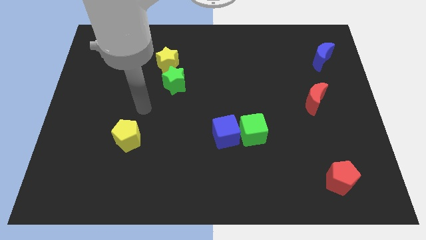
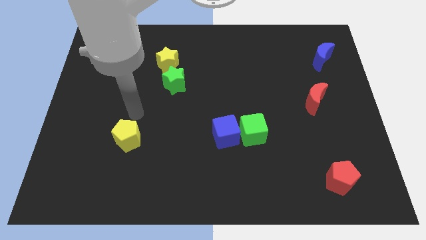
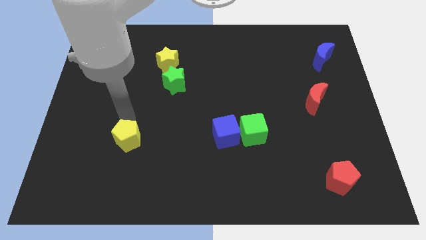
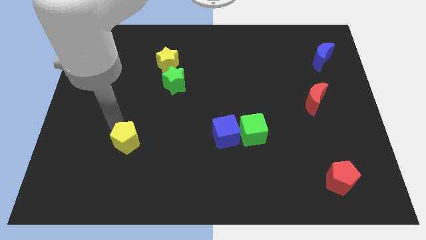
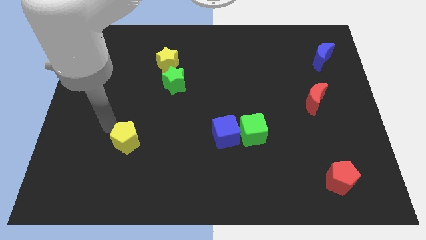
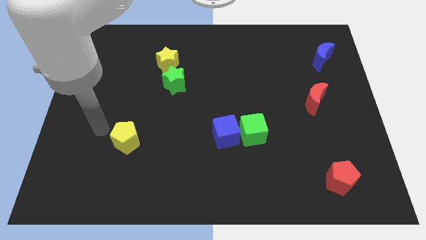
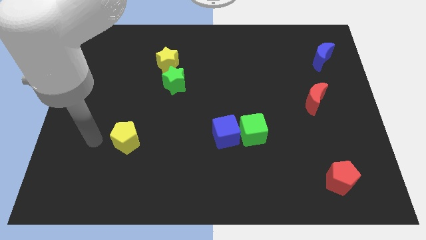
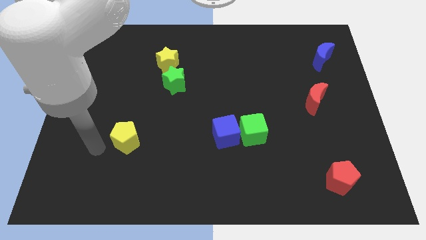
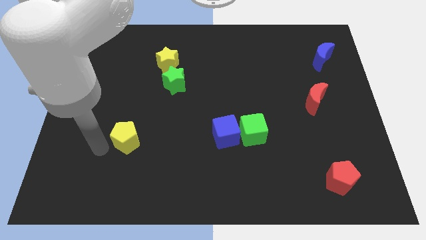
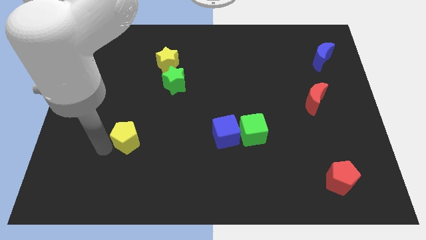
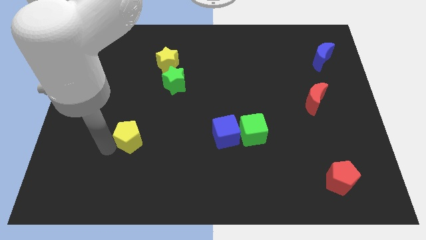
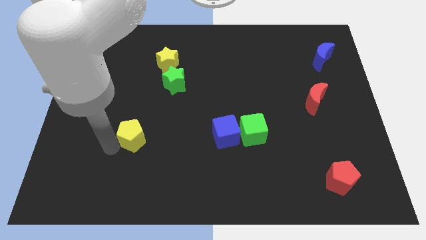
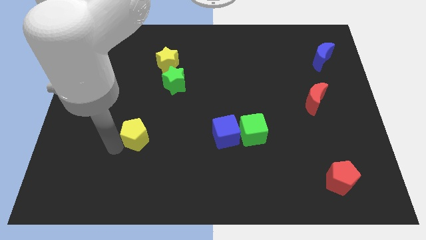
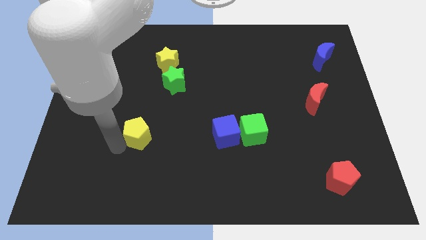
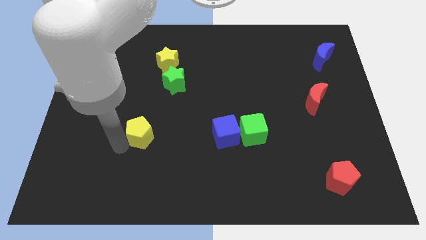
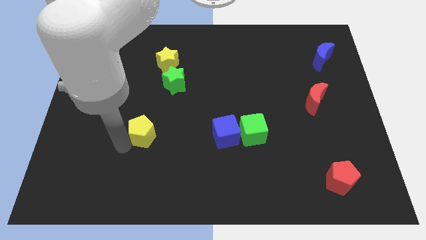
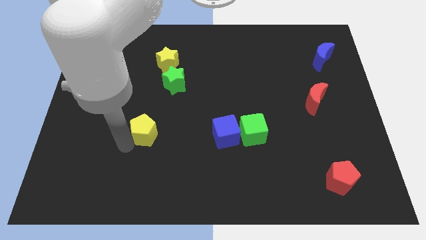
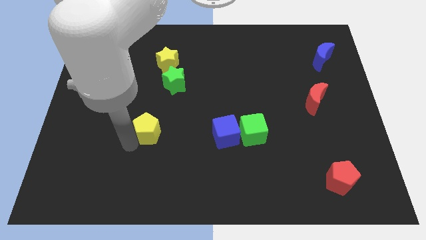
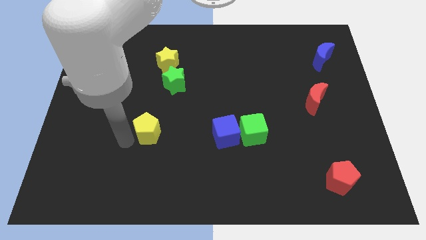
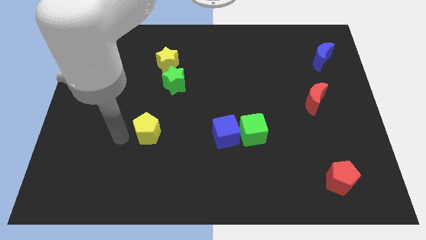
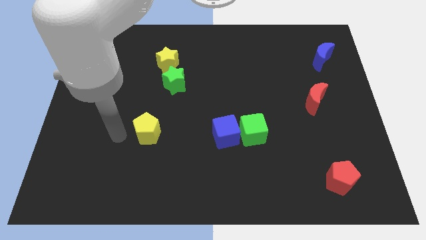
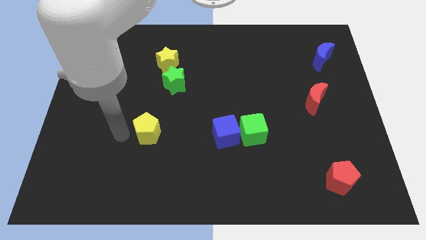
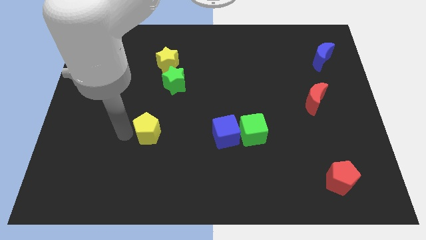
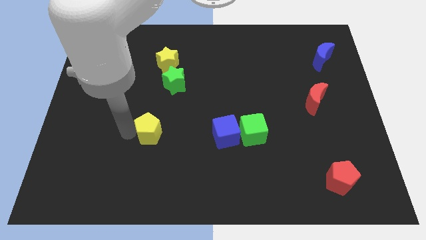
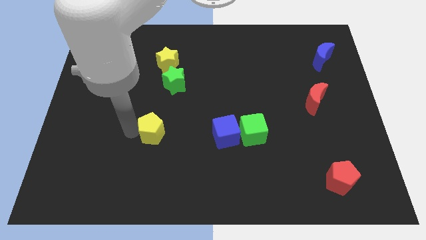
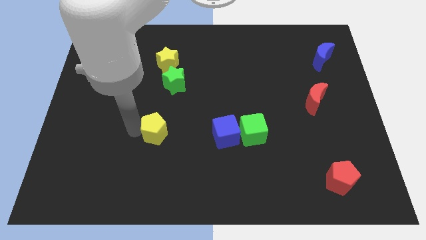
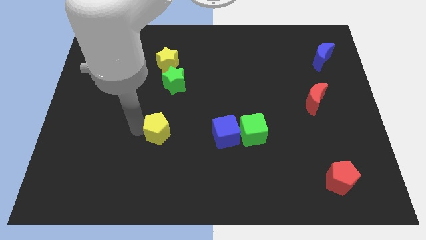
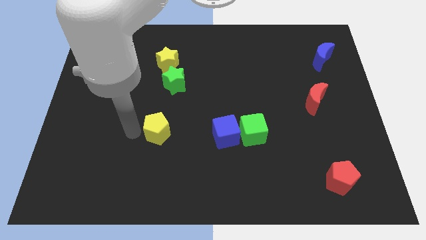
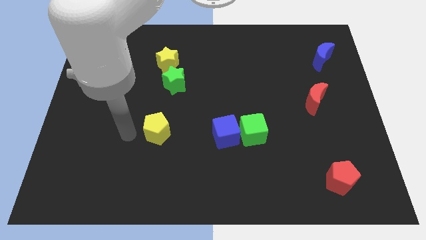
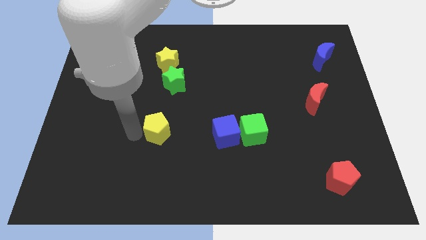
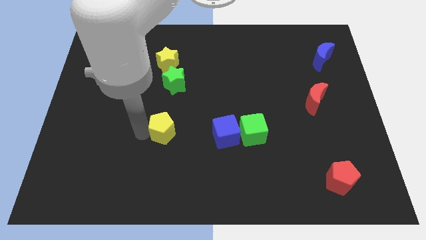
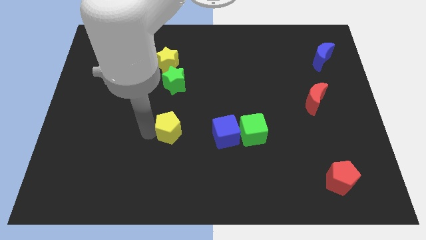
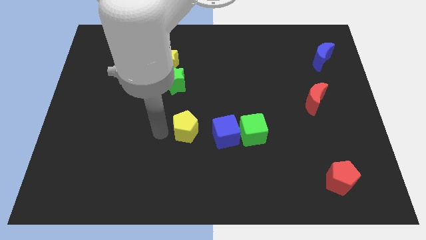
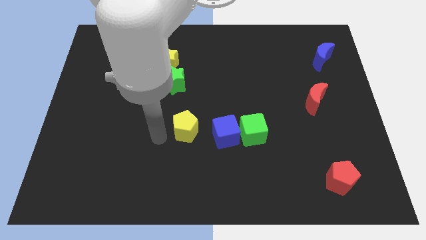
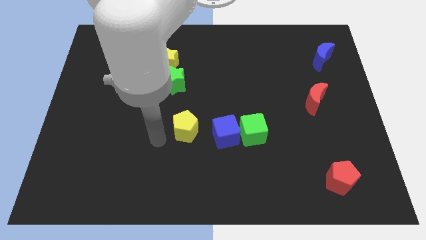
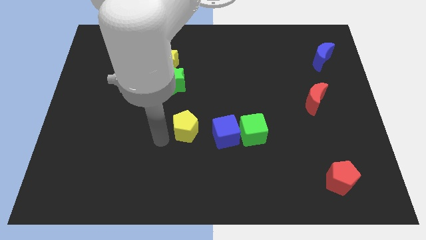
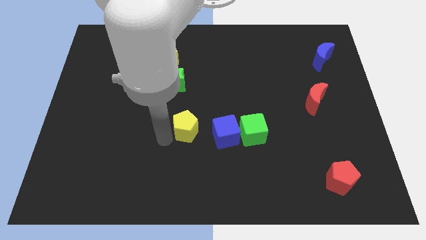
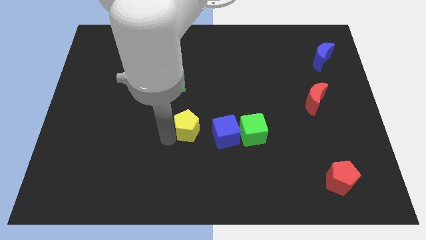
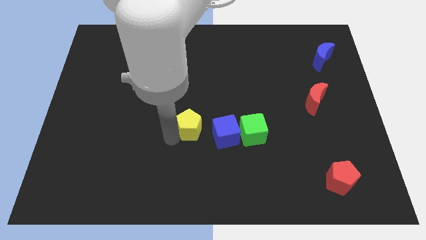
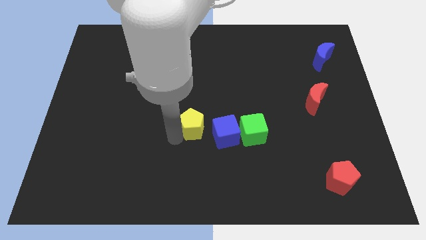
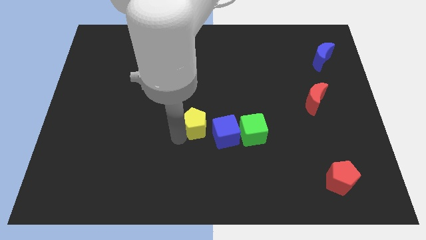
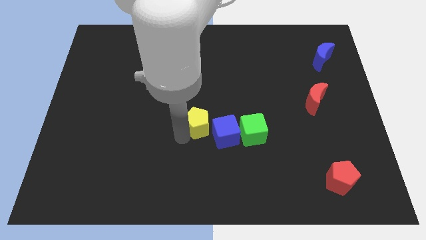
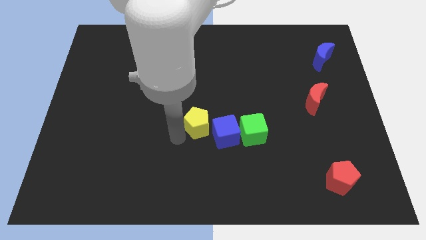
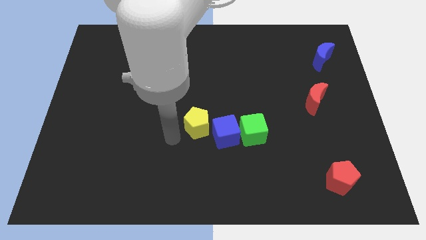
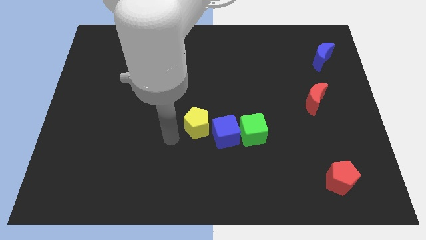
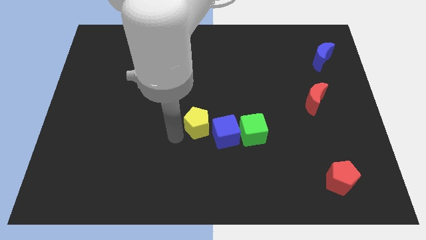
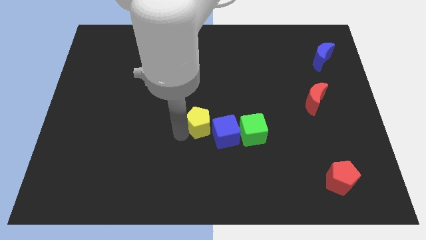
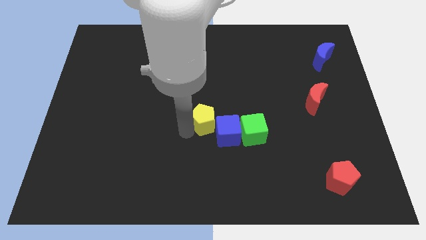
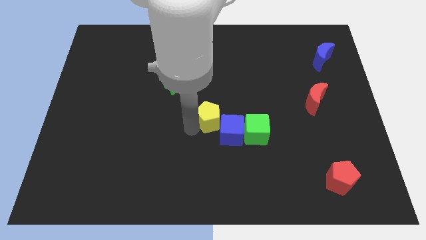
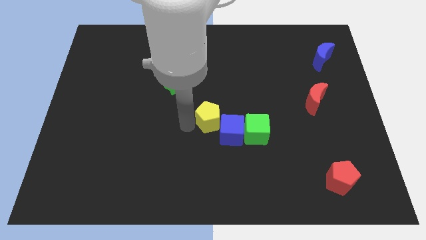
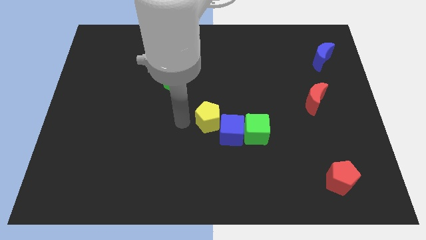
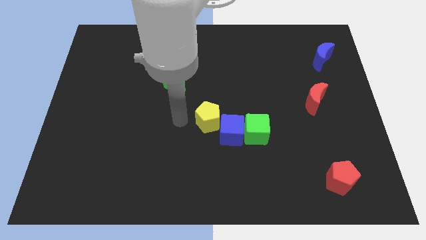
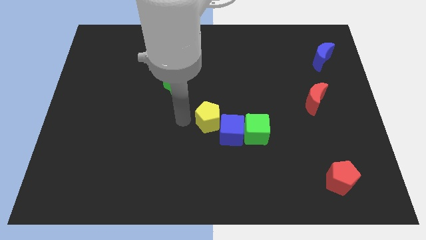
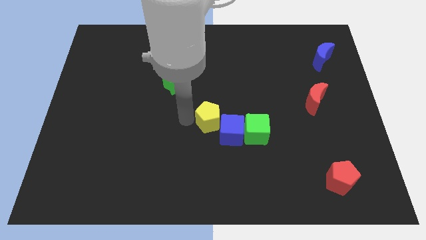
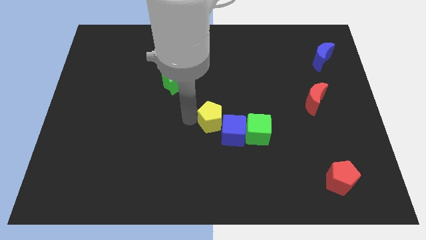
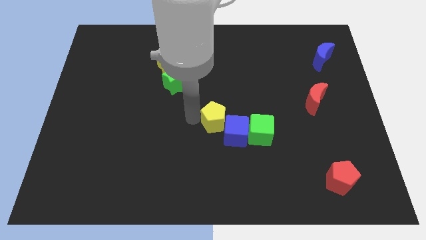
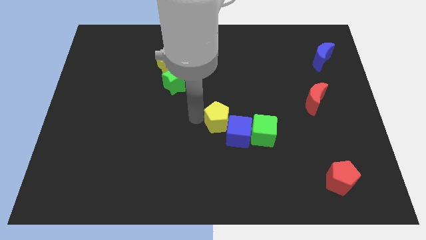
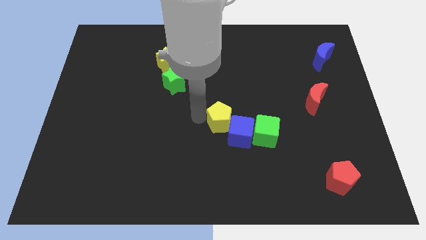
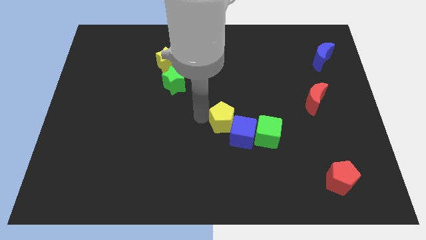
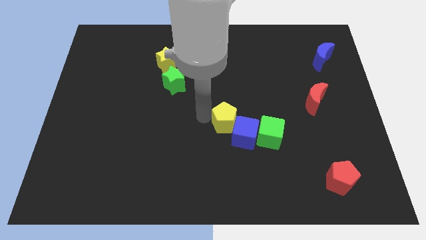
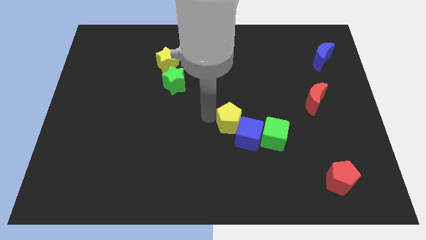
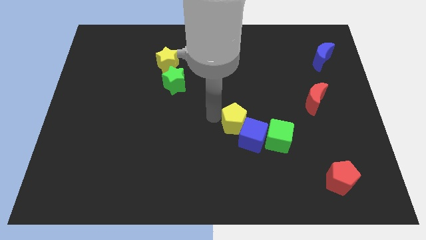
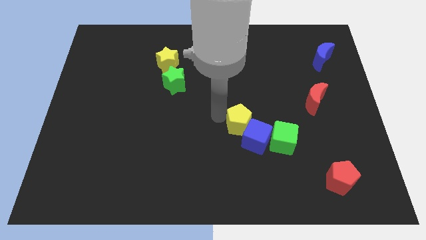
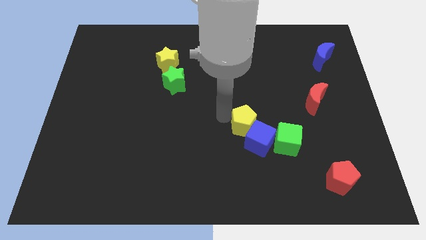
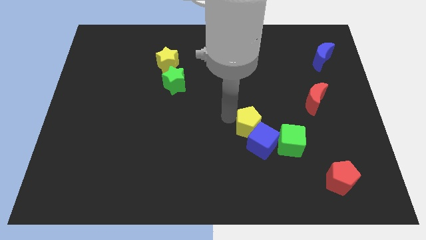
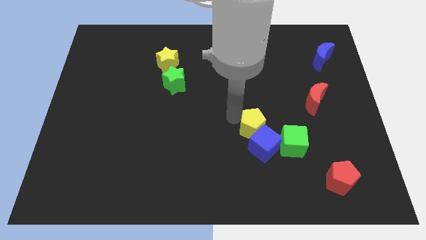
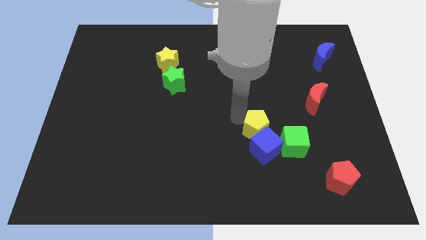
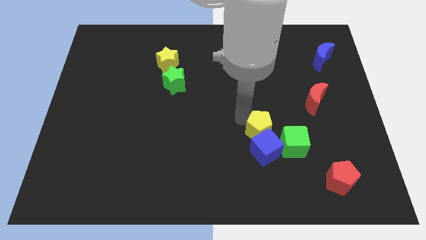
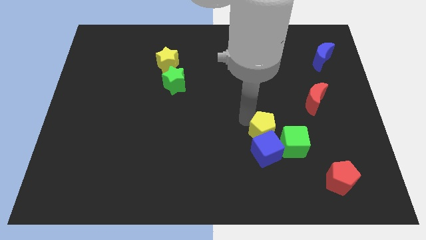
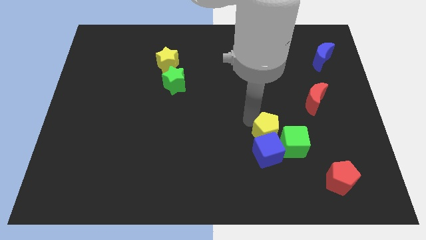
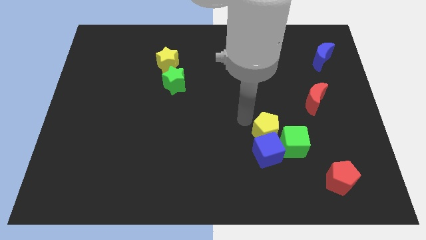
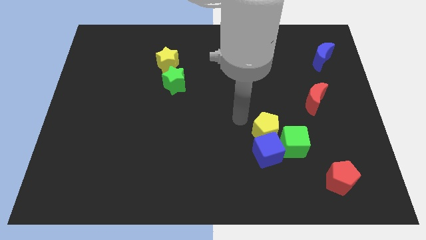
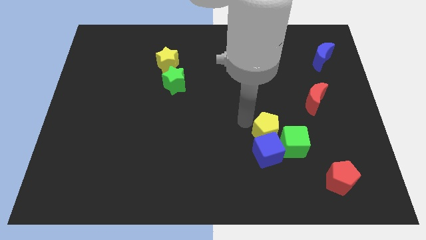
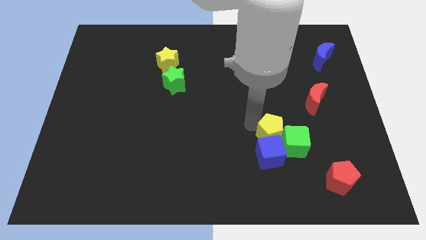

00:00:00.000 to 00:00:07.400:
slide the yellow pentagon close to the green cube

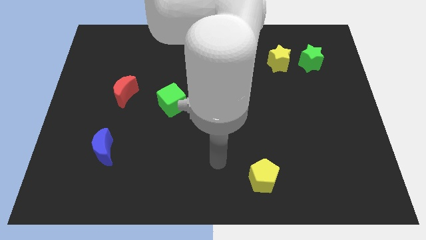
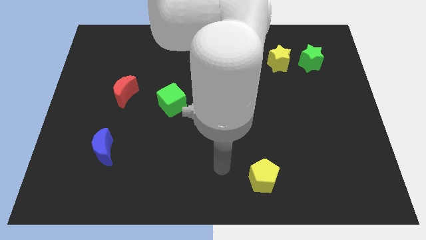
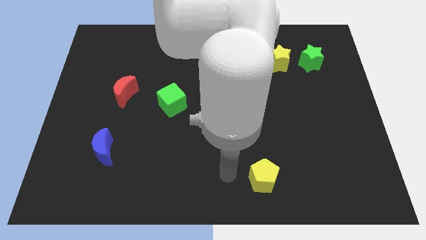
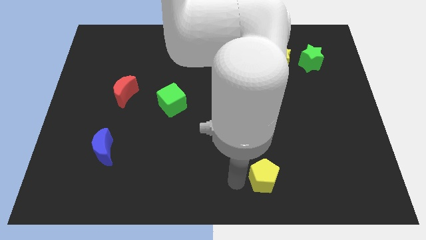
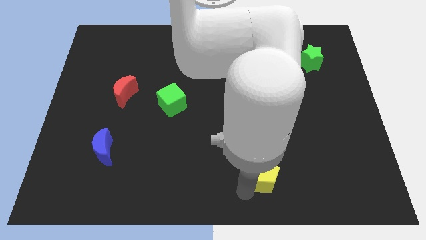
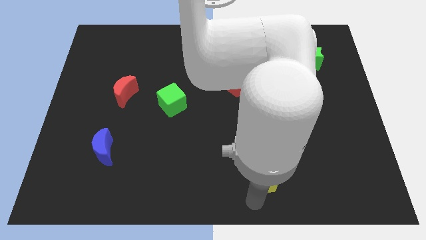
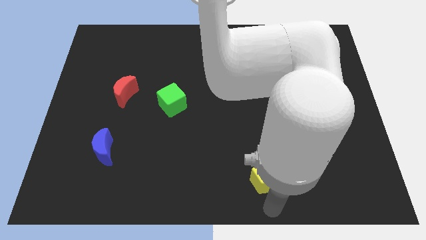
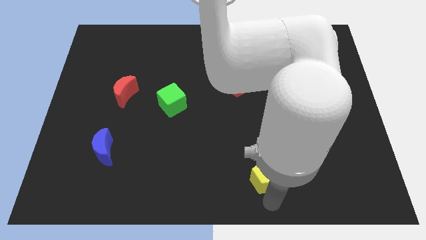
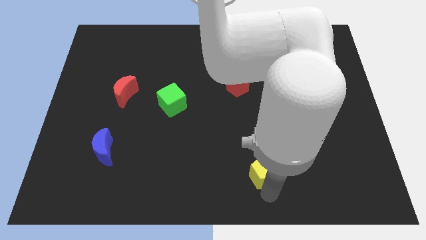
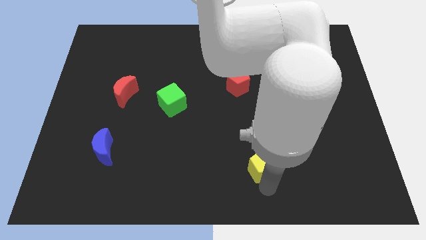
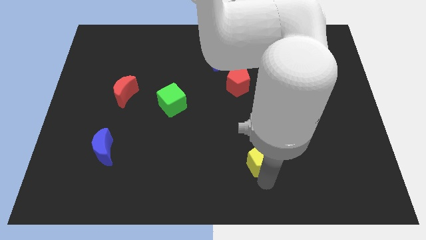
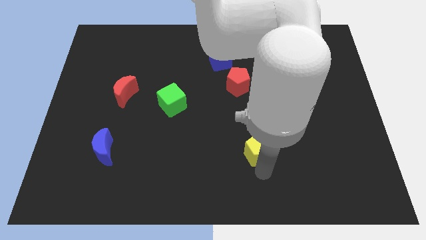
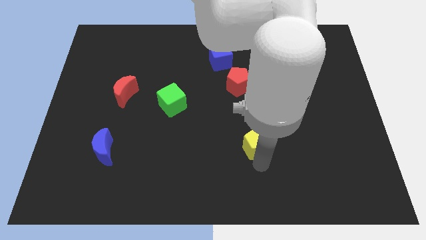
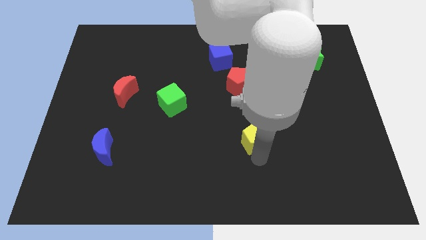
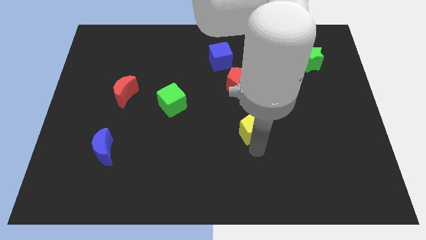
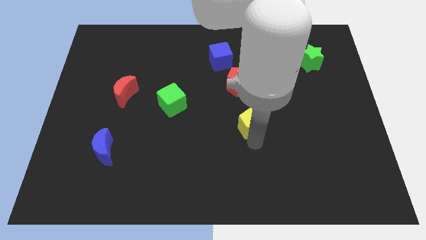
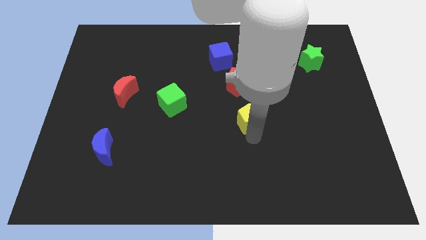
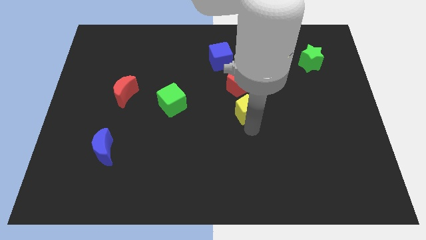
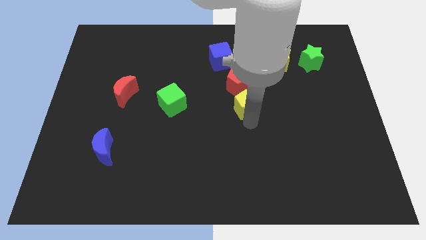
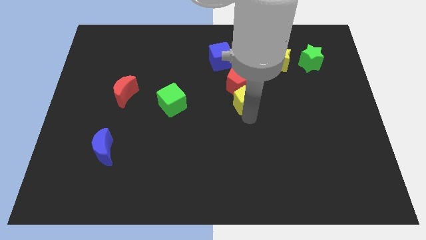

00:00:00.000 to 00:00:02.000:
put the yellow pentagon to the red pentagon
